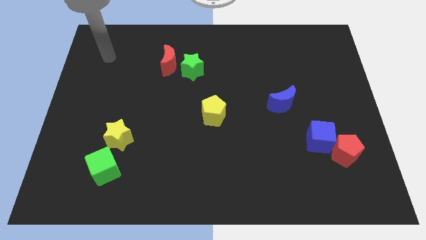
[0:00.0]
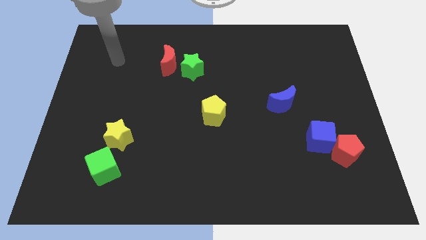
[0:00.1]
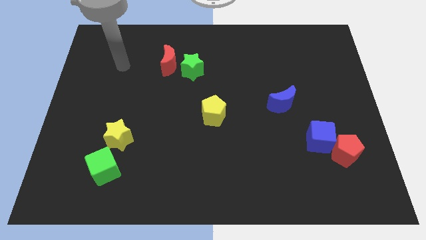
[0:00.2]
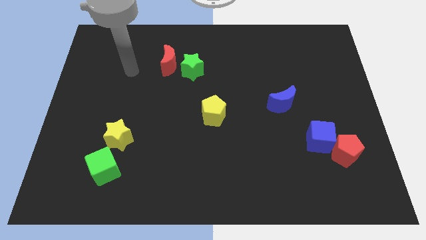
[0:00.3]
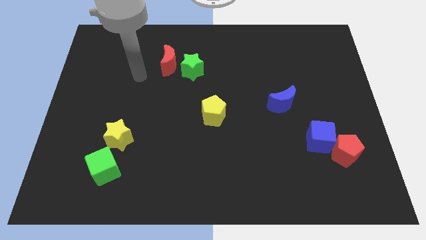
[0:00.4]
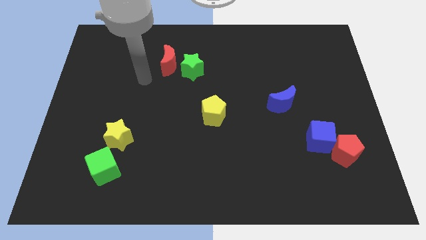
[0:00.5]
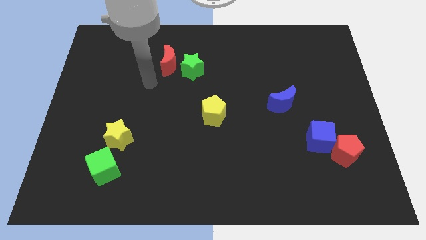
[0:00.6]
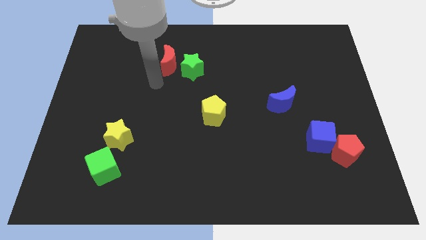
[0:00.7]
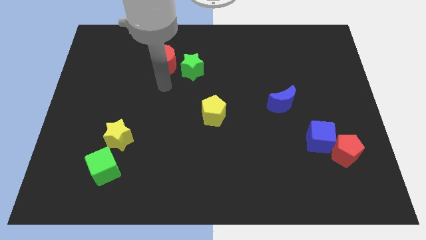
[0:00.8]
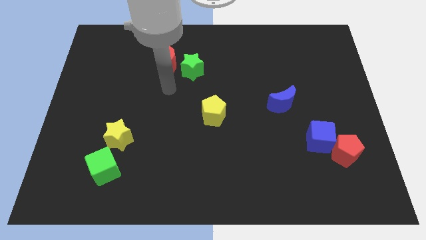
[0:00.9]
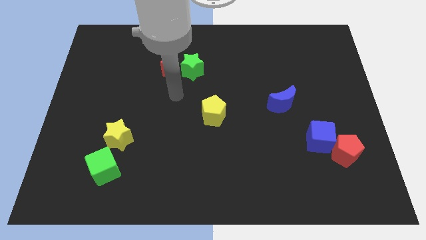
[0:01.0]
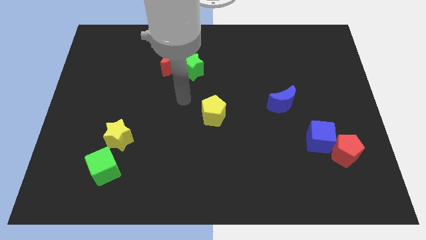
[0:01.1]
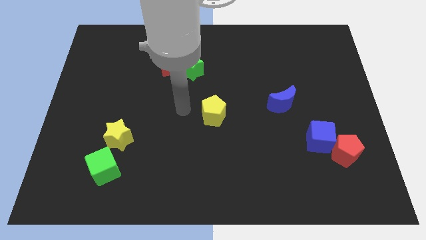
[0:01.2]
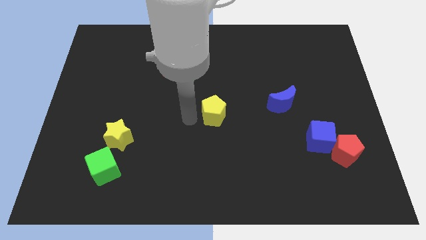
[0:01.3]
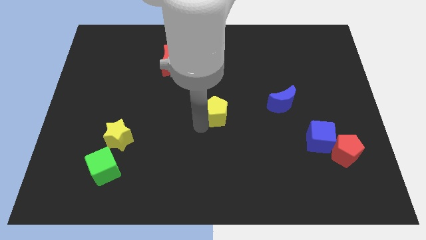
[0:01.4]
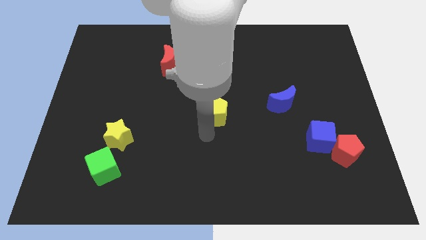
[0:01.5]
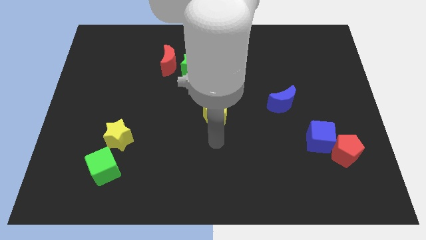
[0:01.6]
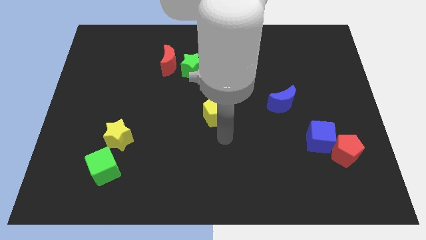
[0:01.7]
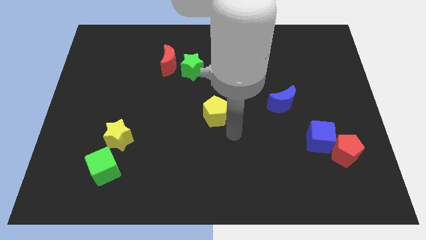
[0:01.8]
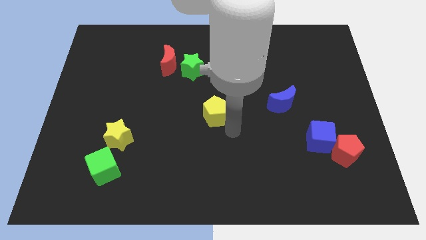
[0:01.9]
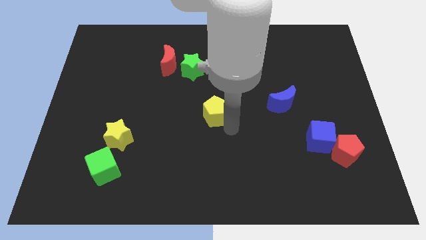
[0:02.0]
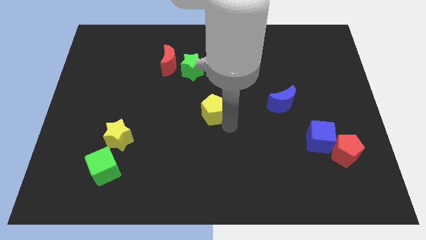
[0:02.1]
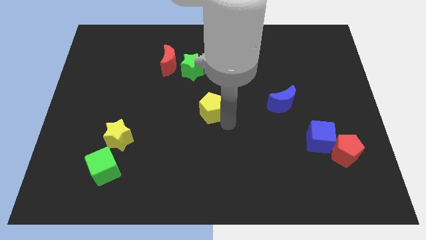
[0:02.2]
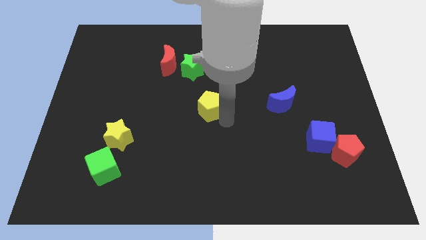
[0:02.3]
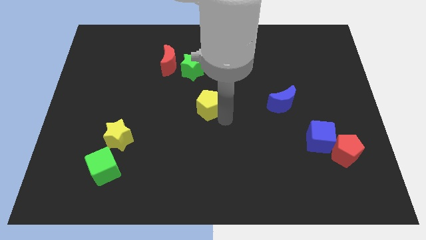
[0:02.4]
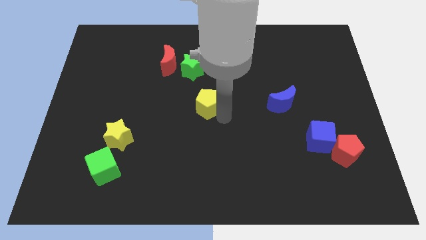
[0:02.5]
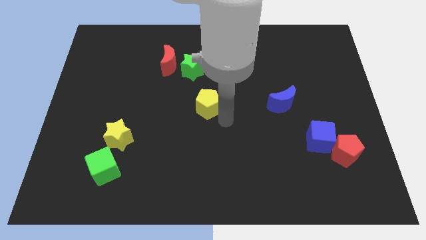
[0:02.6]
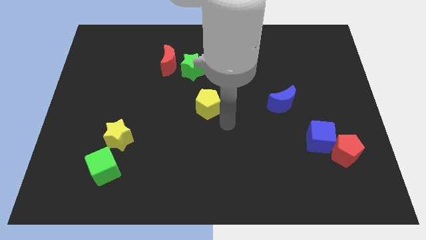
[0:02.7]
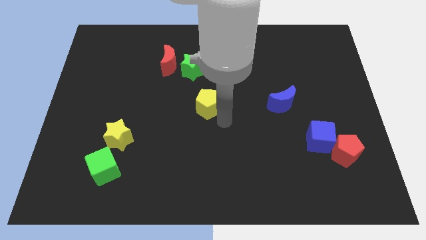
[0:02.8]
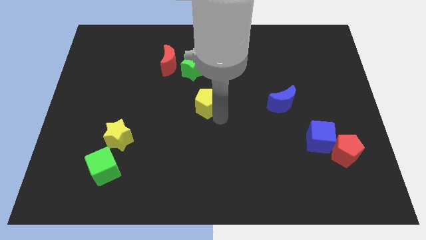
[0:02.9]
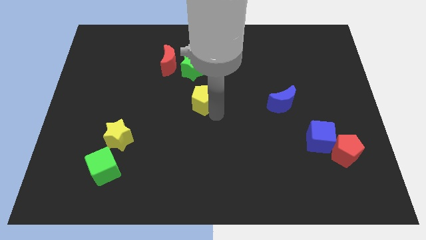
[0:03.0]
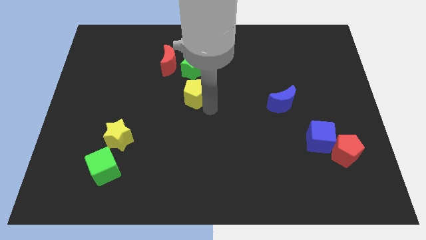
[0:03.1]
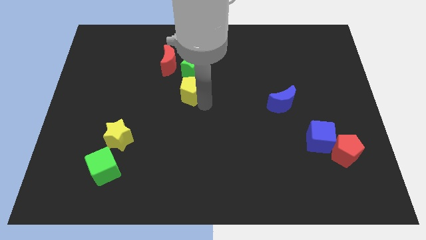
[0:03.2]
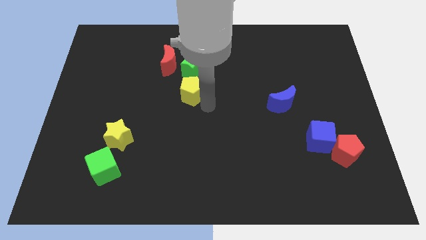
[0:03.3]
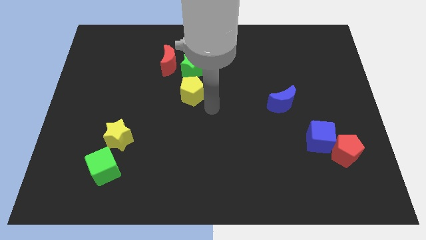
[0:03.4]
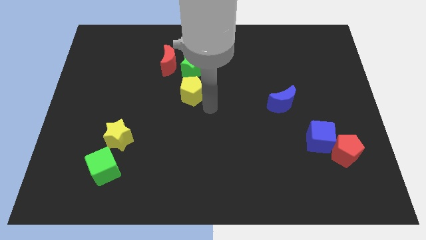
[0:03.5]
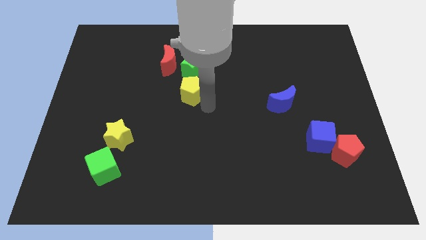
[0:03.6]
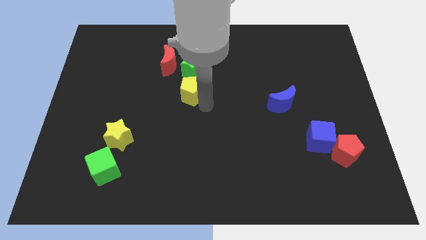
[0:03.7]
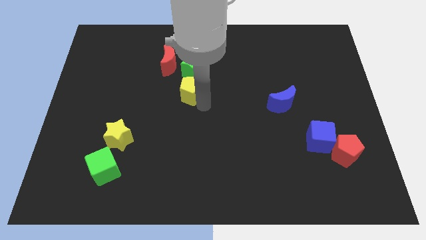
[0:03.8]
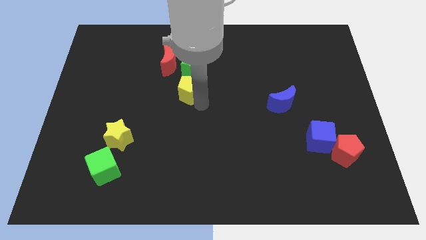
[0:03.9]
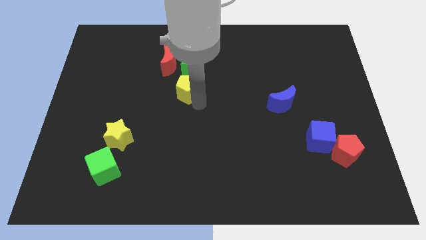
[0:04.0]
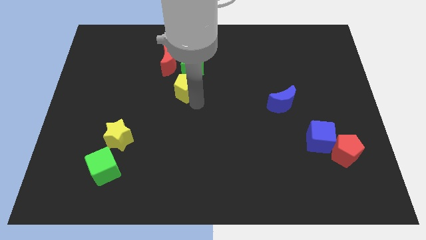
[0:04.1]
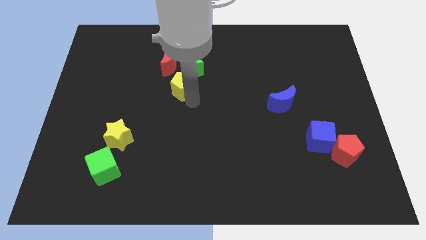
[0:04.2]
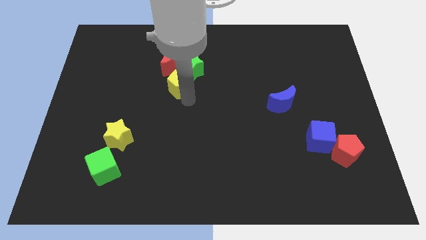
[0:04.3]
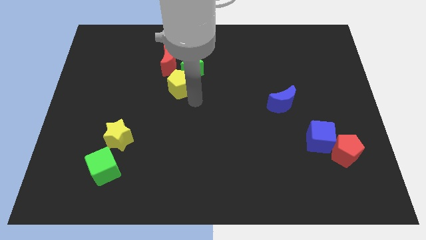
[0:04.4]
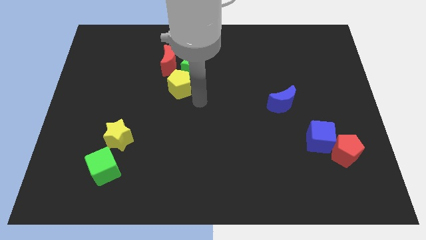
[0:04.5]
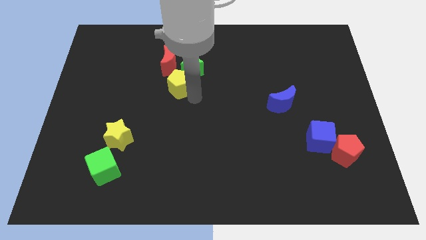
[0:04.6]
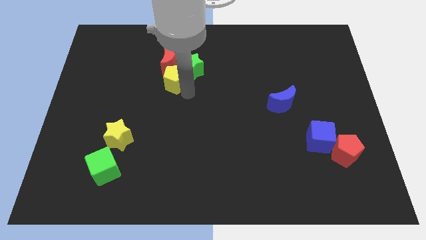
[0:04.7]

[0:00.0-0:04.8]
put the yellow pentagon left of the green star

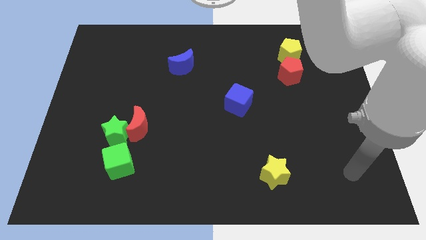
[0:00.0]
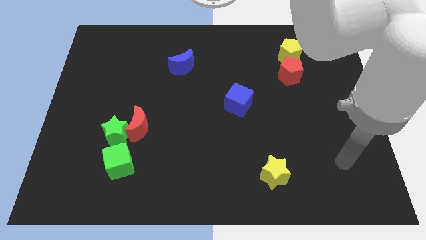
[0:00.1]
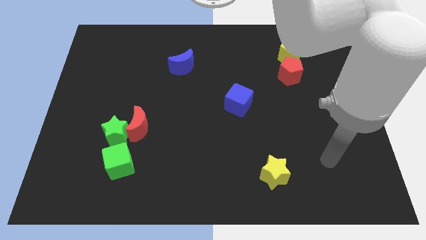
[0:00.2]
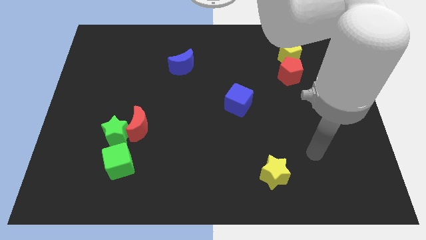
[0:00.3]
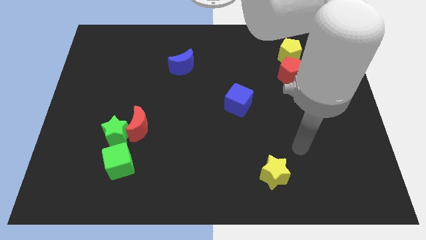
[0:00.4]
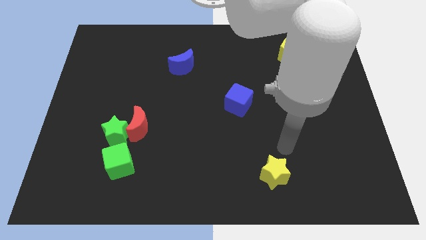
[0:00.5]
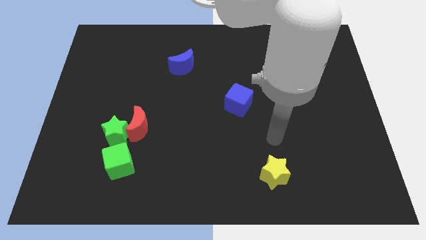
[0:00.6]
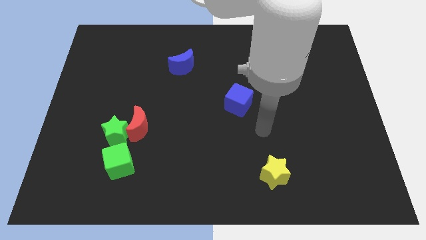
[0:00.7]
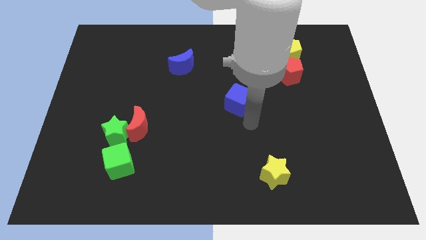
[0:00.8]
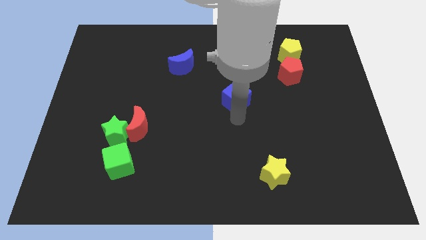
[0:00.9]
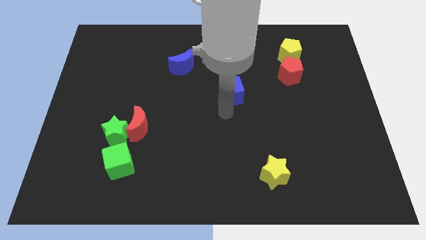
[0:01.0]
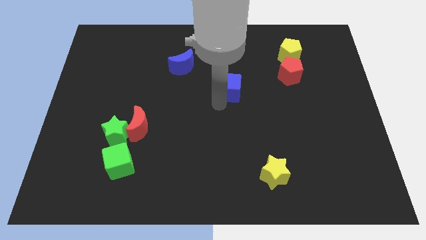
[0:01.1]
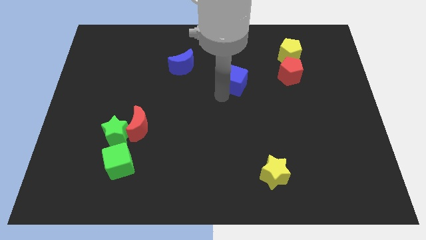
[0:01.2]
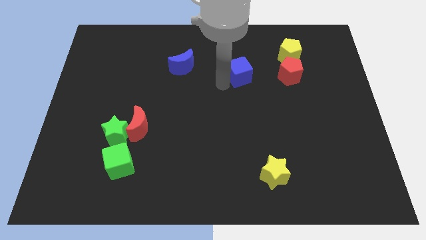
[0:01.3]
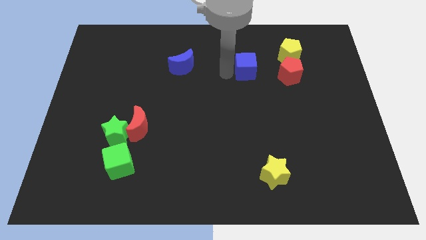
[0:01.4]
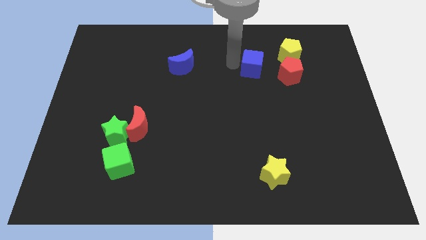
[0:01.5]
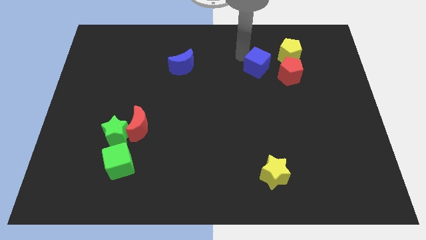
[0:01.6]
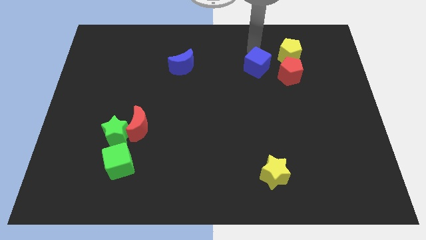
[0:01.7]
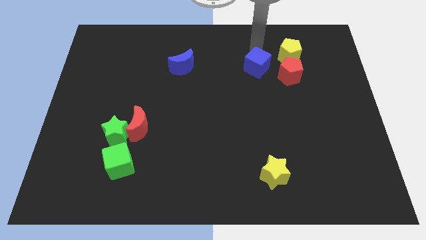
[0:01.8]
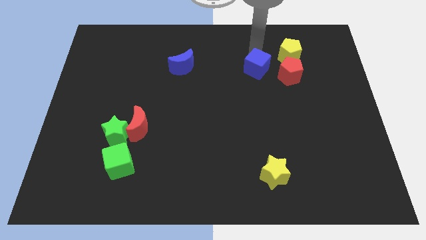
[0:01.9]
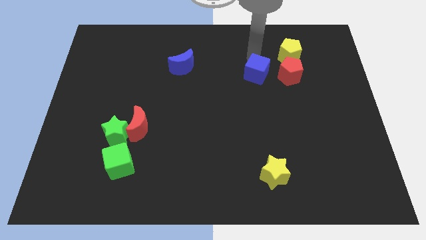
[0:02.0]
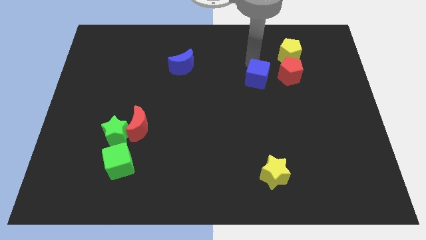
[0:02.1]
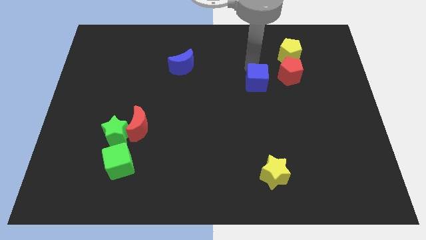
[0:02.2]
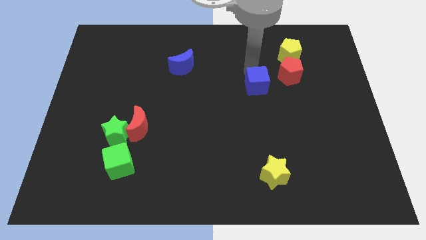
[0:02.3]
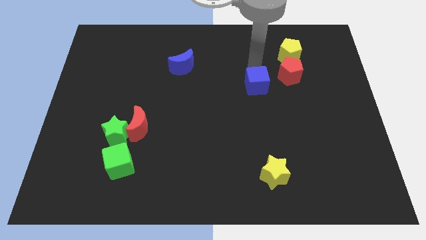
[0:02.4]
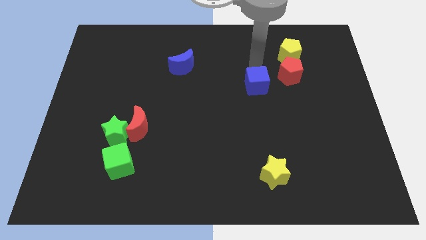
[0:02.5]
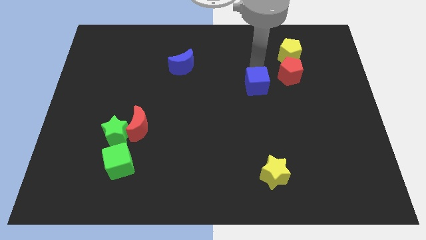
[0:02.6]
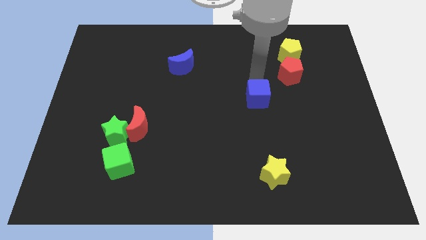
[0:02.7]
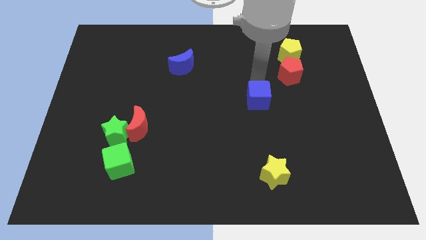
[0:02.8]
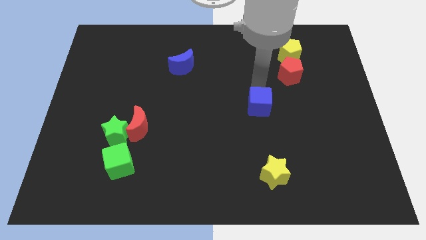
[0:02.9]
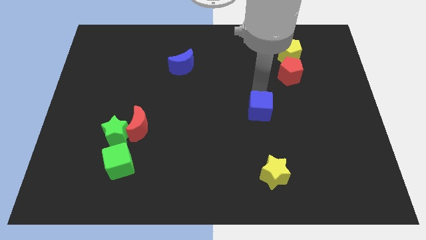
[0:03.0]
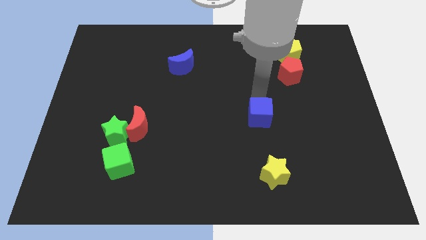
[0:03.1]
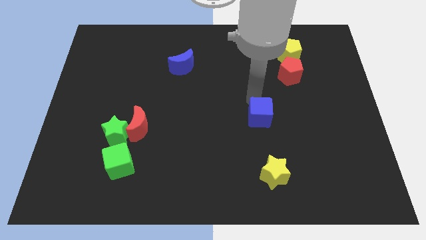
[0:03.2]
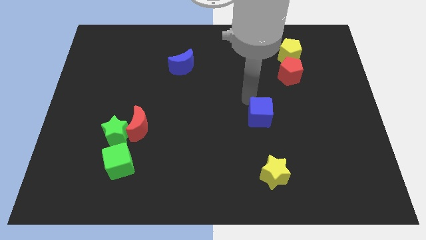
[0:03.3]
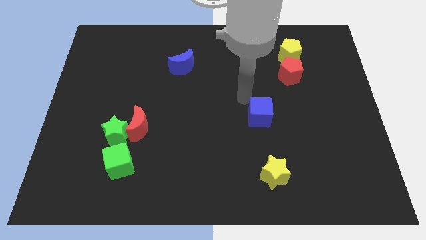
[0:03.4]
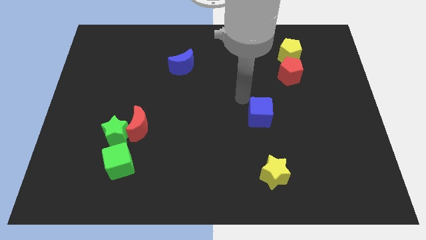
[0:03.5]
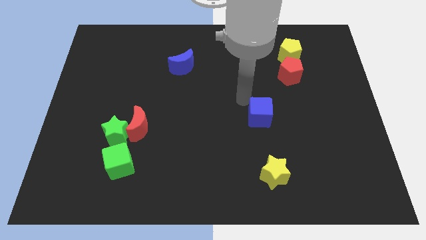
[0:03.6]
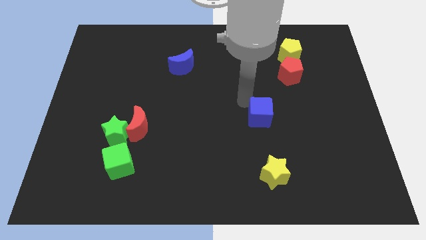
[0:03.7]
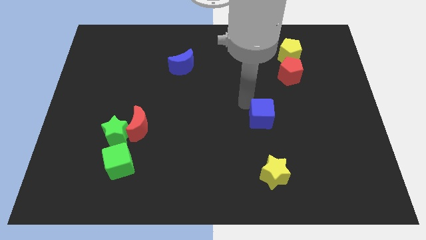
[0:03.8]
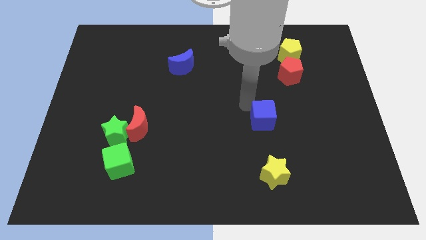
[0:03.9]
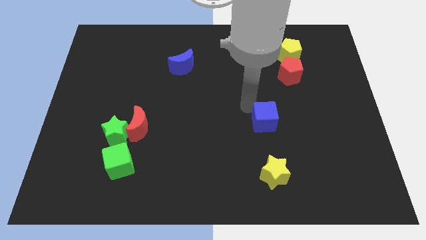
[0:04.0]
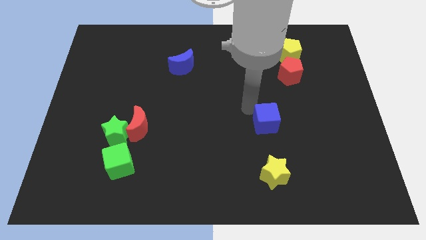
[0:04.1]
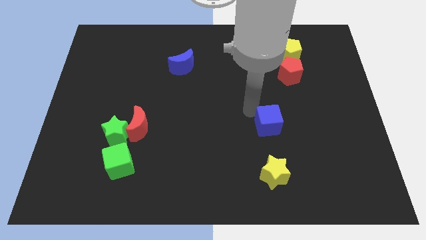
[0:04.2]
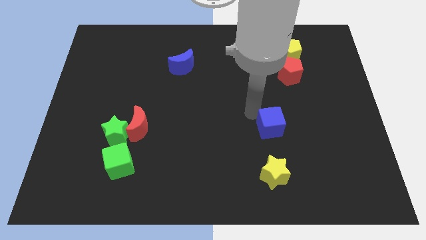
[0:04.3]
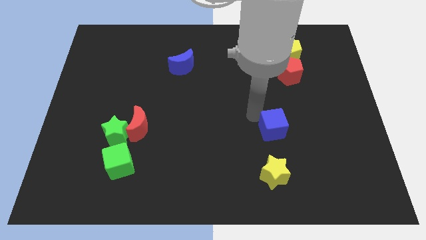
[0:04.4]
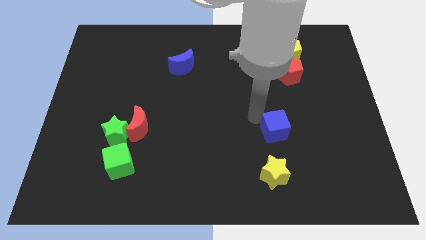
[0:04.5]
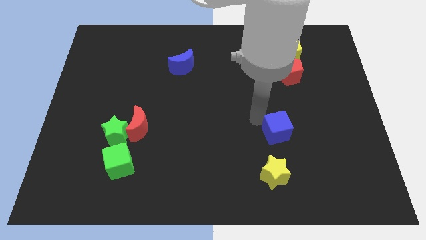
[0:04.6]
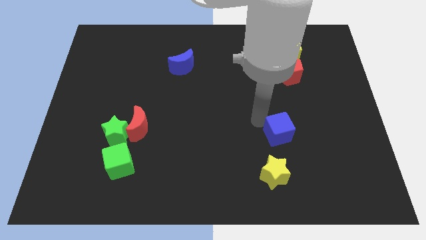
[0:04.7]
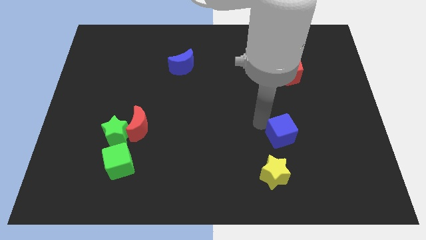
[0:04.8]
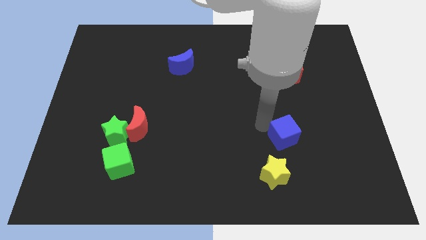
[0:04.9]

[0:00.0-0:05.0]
put the blue cube to the top right of the yellow star
